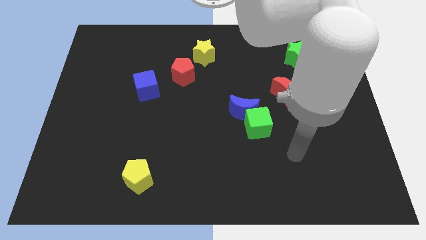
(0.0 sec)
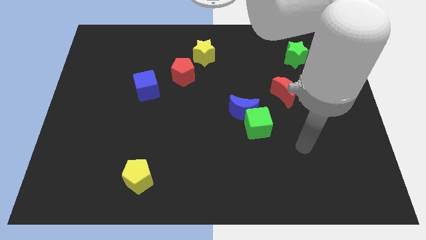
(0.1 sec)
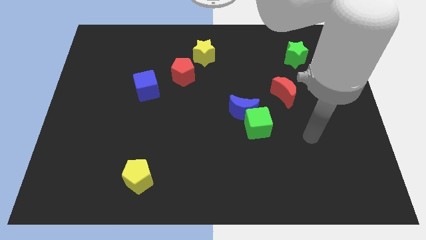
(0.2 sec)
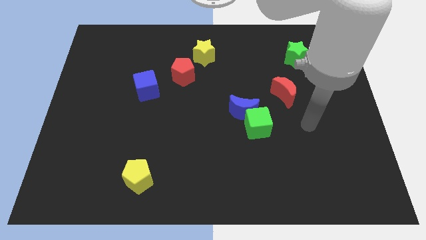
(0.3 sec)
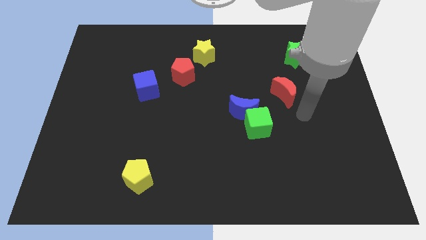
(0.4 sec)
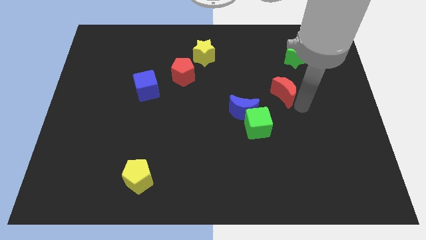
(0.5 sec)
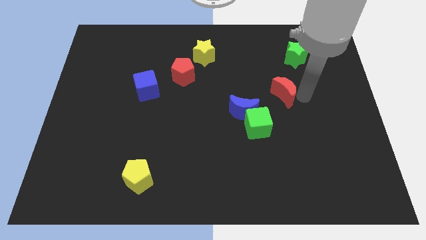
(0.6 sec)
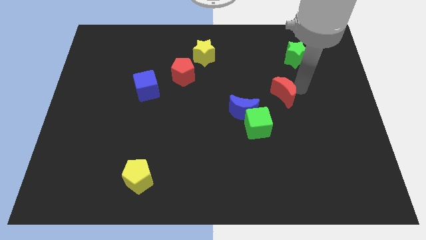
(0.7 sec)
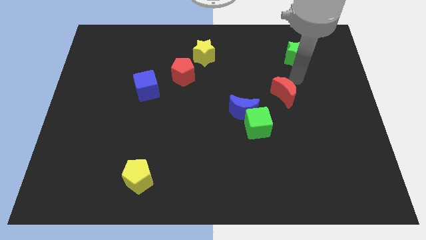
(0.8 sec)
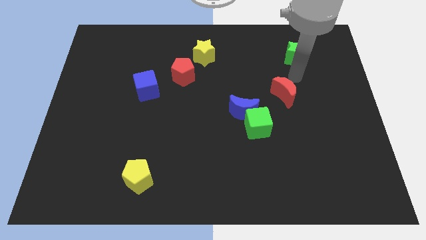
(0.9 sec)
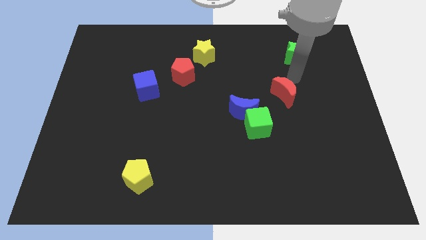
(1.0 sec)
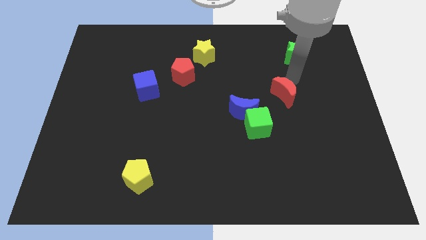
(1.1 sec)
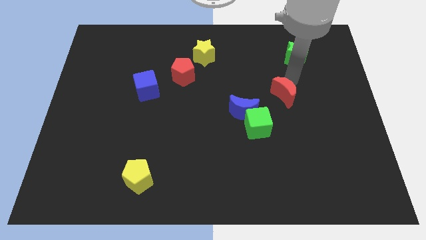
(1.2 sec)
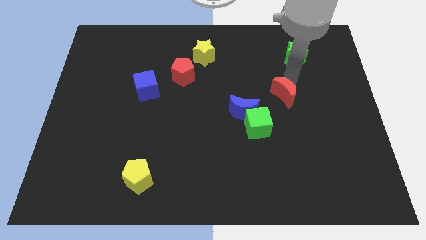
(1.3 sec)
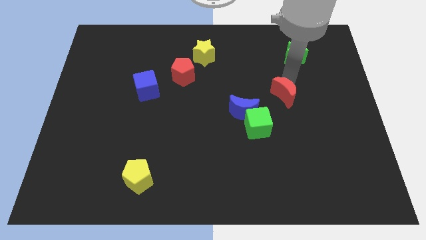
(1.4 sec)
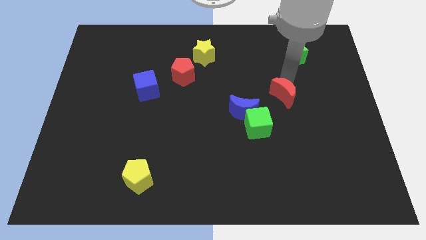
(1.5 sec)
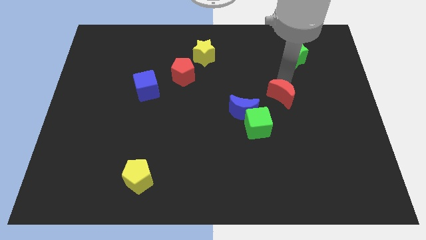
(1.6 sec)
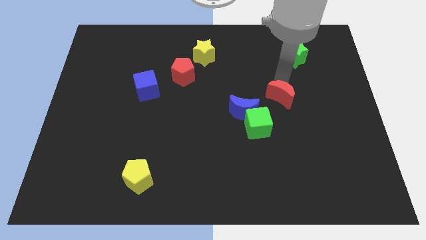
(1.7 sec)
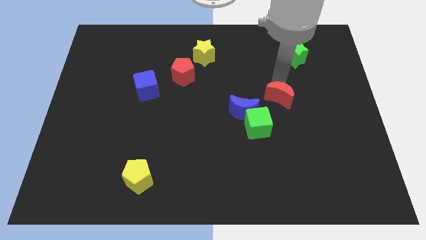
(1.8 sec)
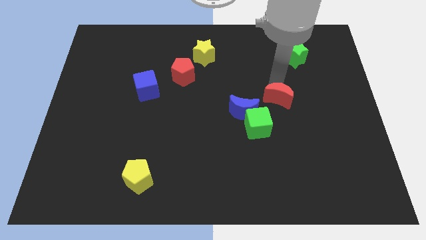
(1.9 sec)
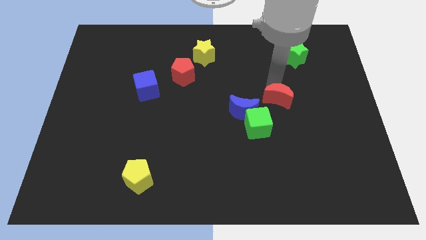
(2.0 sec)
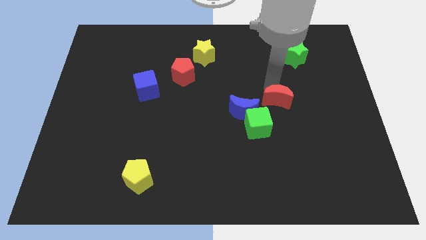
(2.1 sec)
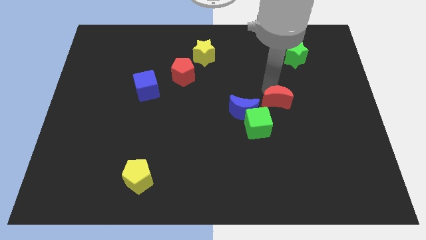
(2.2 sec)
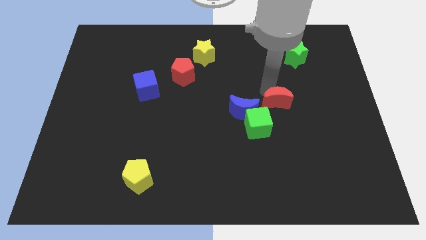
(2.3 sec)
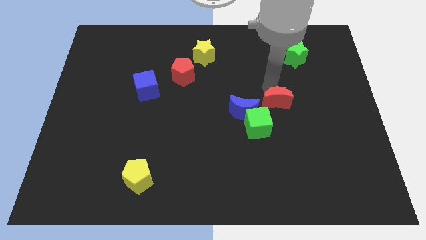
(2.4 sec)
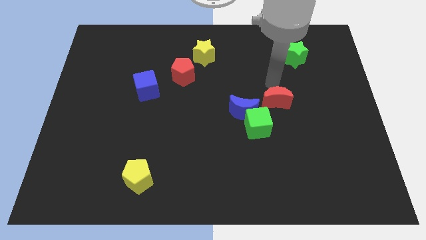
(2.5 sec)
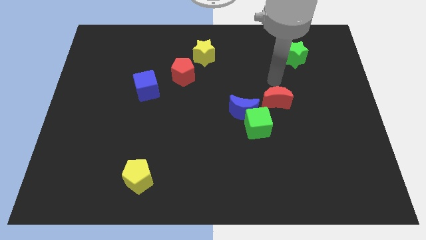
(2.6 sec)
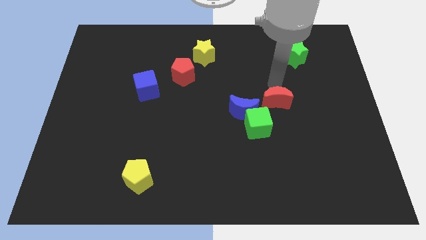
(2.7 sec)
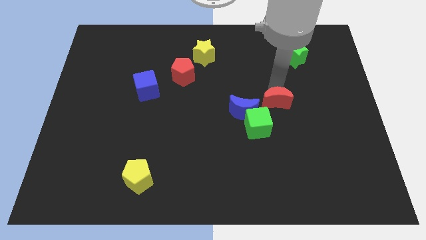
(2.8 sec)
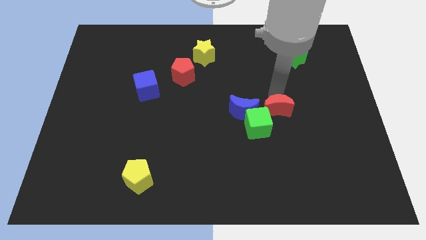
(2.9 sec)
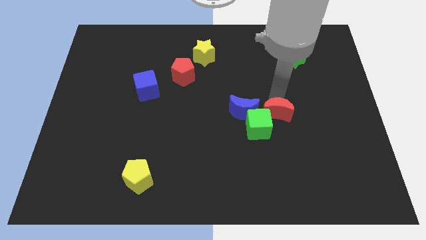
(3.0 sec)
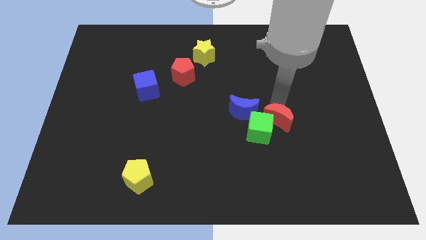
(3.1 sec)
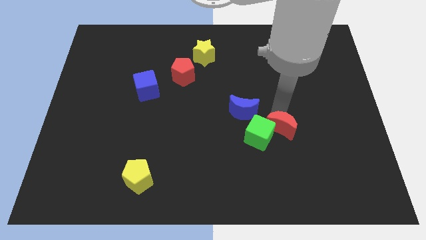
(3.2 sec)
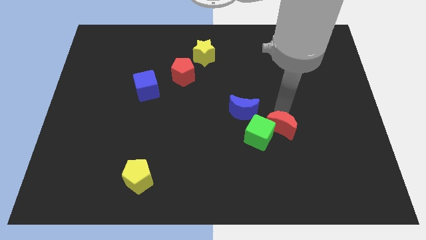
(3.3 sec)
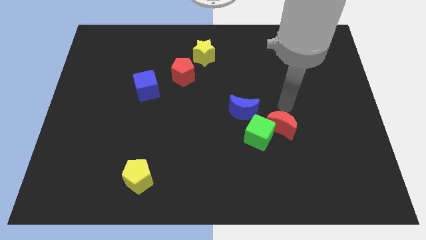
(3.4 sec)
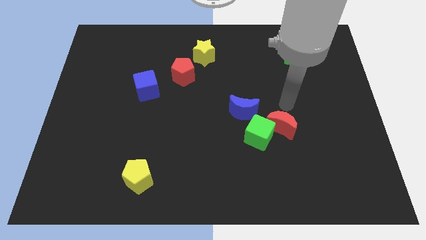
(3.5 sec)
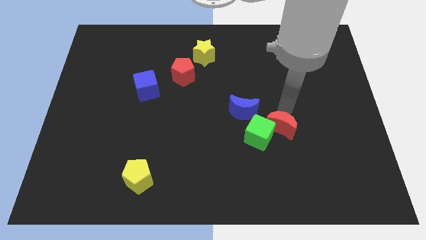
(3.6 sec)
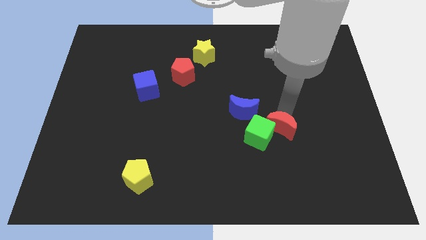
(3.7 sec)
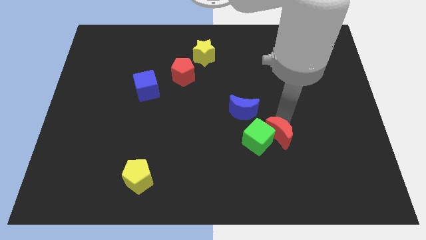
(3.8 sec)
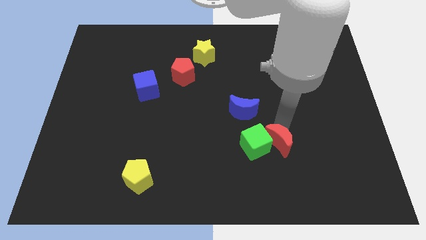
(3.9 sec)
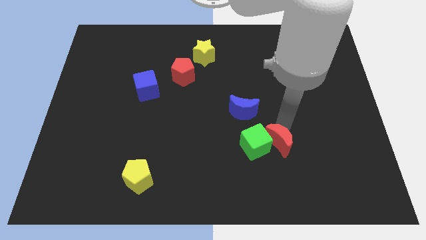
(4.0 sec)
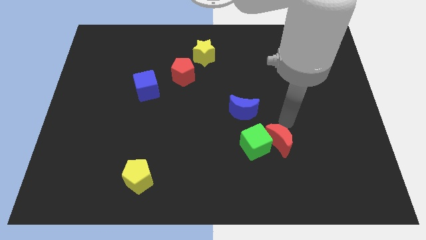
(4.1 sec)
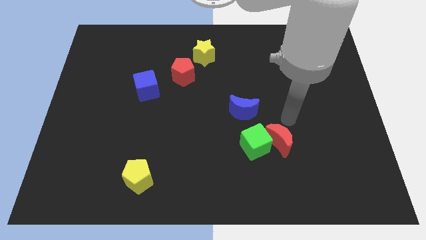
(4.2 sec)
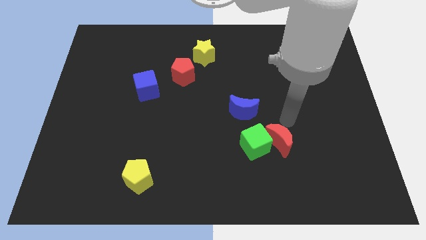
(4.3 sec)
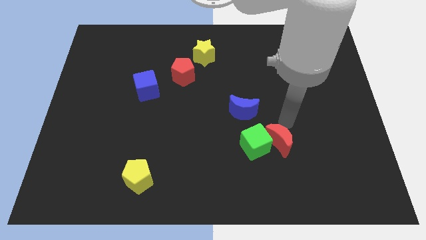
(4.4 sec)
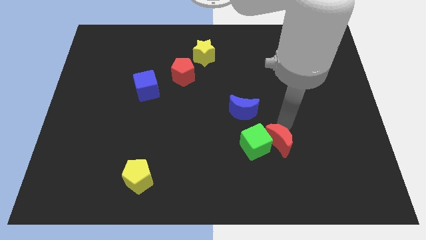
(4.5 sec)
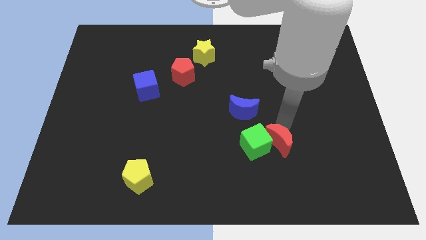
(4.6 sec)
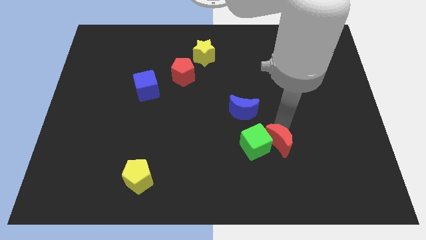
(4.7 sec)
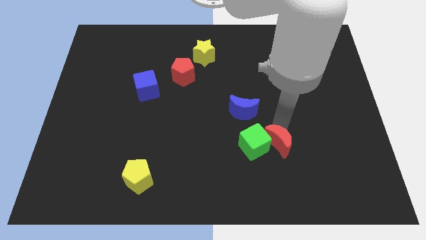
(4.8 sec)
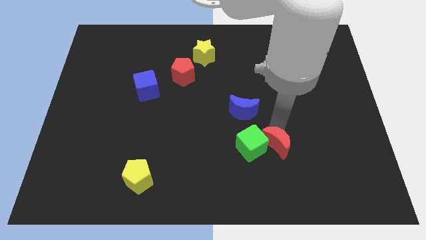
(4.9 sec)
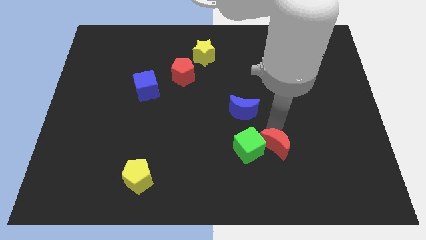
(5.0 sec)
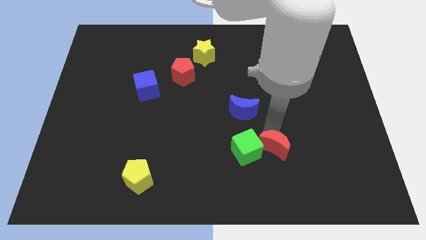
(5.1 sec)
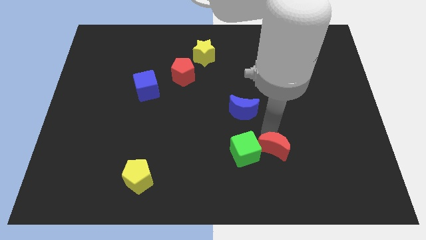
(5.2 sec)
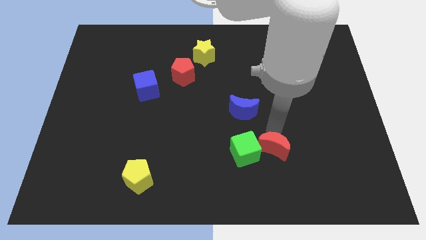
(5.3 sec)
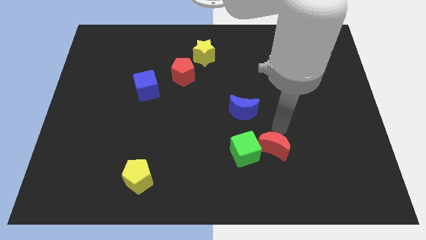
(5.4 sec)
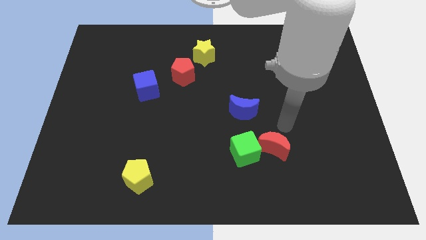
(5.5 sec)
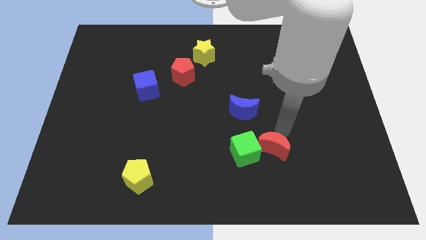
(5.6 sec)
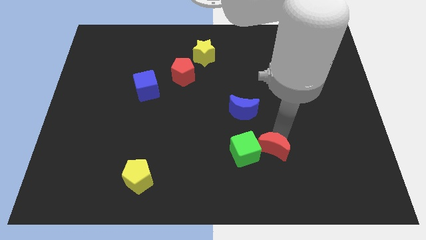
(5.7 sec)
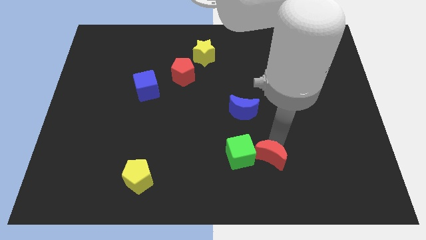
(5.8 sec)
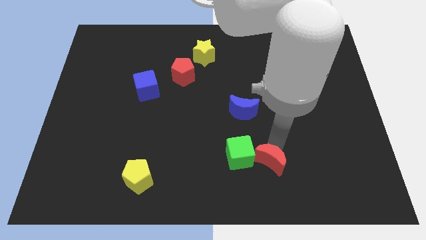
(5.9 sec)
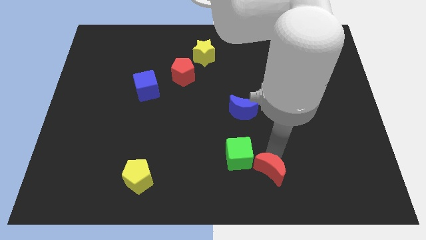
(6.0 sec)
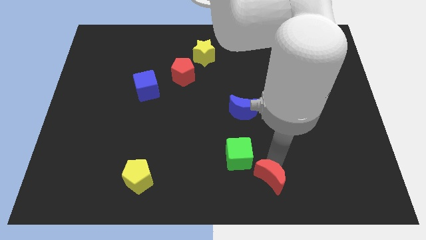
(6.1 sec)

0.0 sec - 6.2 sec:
put the red moon to the bottom side

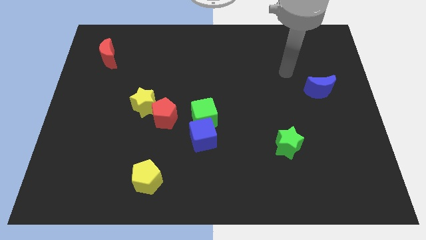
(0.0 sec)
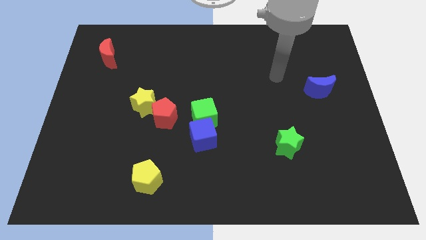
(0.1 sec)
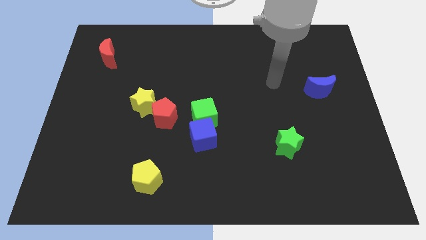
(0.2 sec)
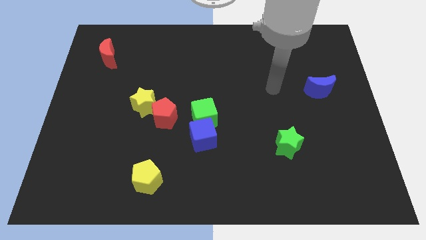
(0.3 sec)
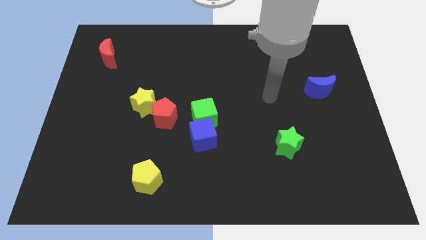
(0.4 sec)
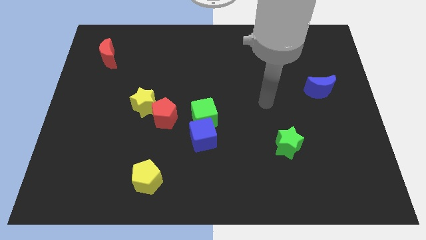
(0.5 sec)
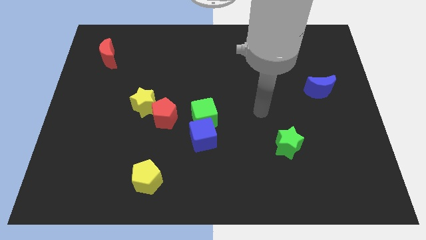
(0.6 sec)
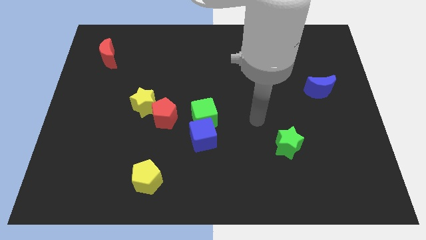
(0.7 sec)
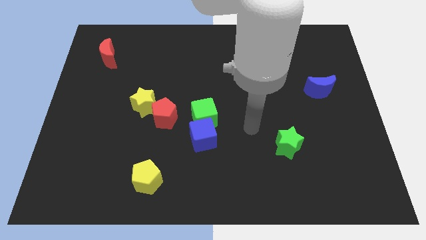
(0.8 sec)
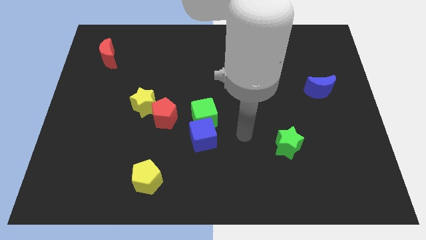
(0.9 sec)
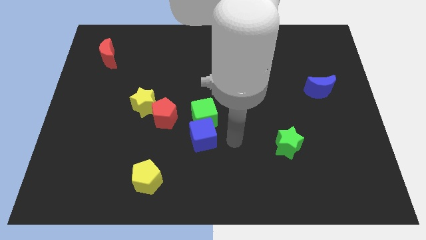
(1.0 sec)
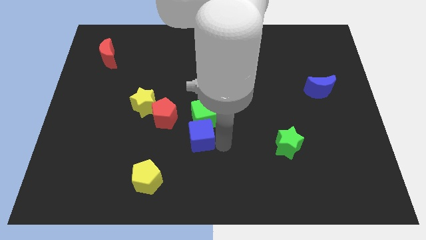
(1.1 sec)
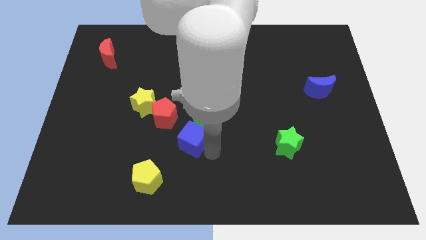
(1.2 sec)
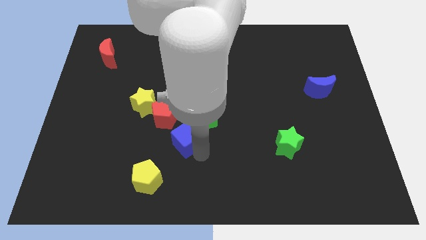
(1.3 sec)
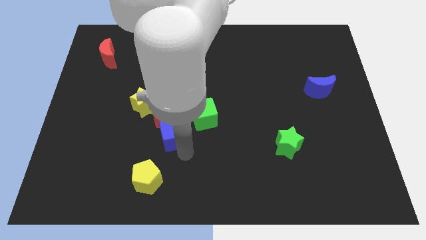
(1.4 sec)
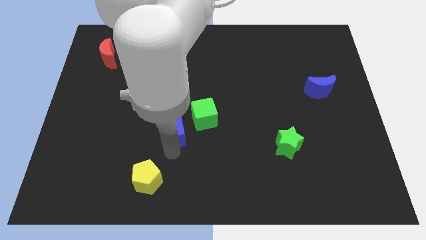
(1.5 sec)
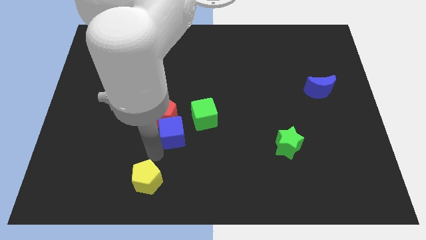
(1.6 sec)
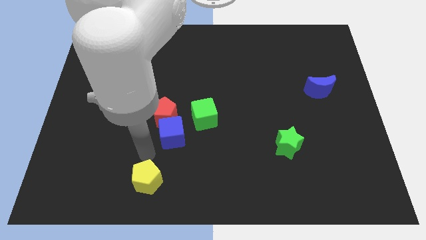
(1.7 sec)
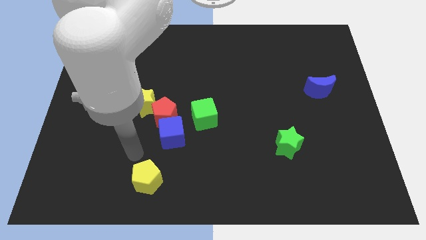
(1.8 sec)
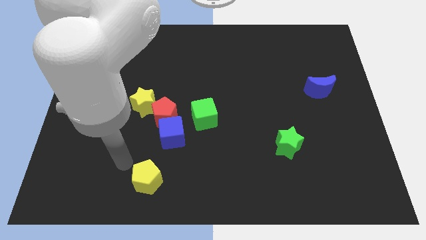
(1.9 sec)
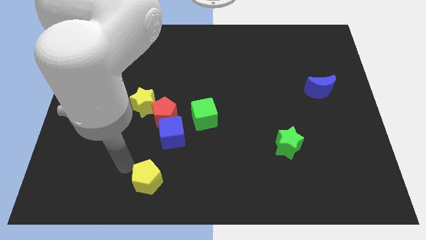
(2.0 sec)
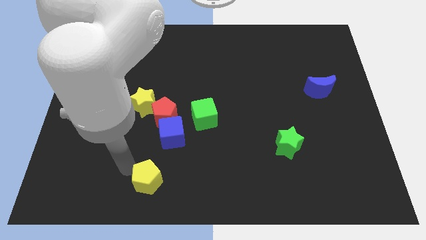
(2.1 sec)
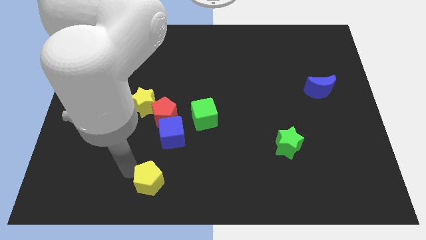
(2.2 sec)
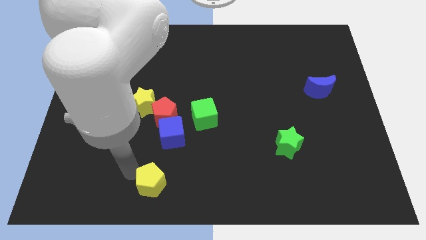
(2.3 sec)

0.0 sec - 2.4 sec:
move the yellow pentagon to the bottom
